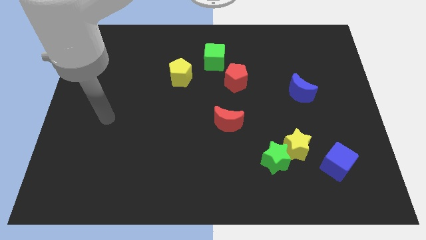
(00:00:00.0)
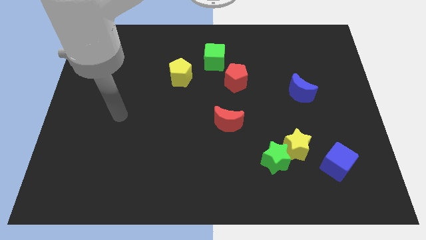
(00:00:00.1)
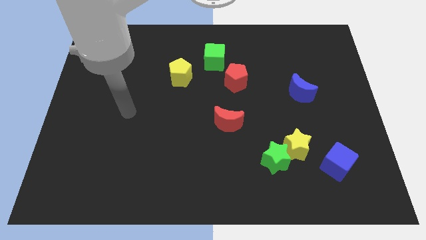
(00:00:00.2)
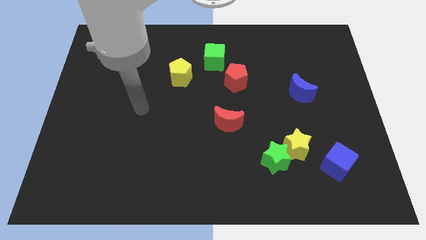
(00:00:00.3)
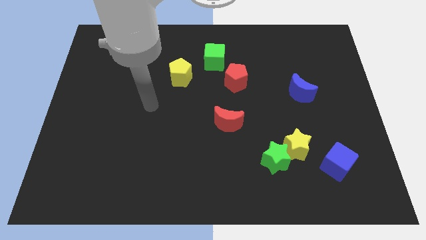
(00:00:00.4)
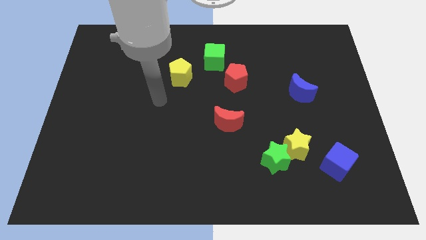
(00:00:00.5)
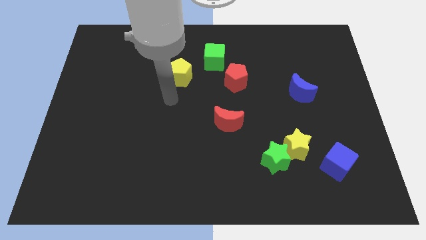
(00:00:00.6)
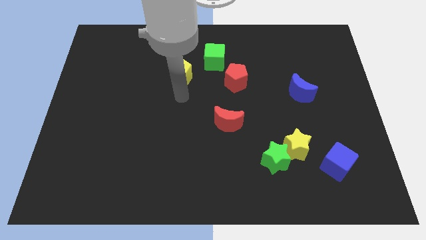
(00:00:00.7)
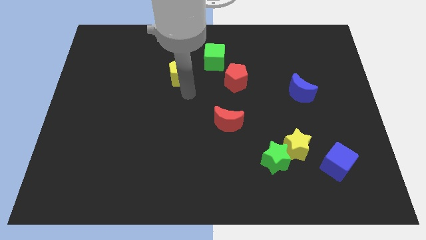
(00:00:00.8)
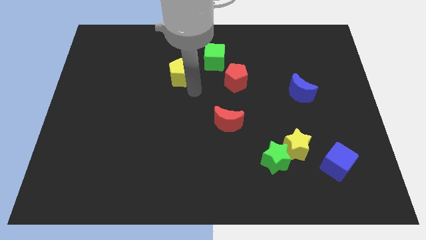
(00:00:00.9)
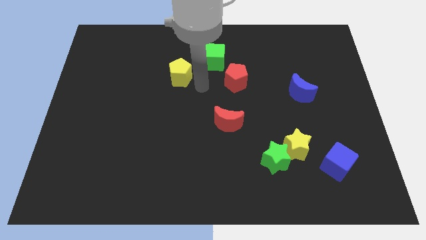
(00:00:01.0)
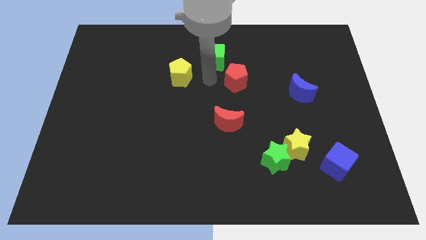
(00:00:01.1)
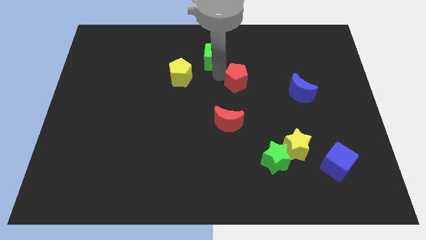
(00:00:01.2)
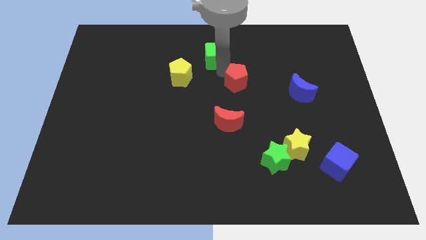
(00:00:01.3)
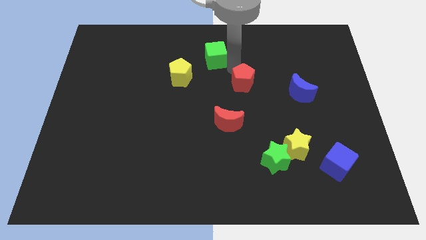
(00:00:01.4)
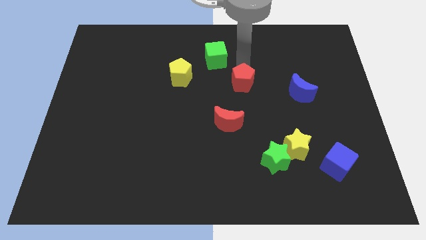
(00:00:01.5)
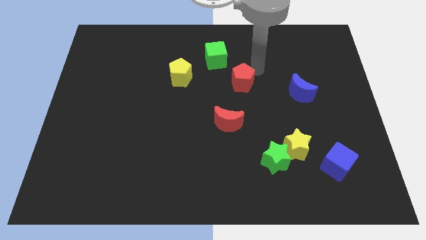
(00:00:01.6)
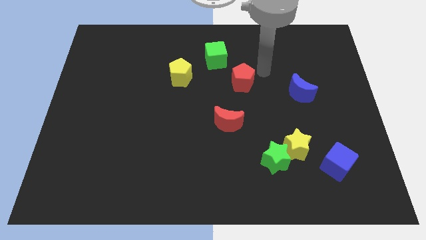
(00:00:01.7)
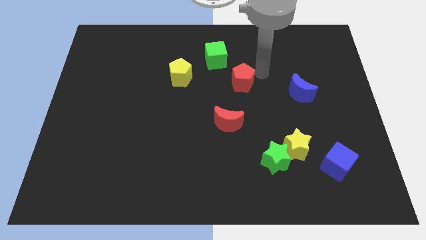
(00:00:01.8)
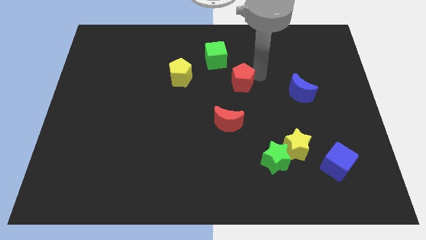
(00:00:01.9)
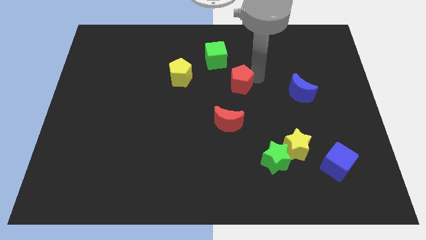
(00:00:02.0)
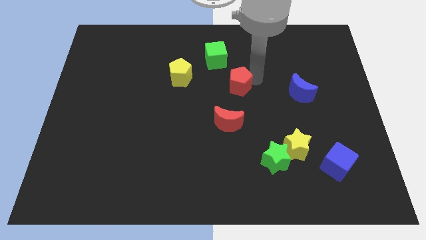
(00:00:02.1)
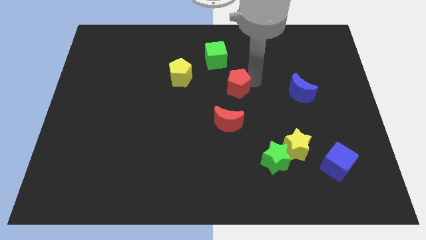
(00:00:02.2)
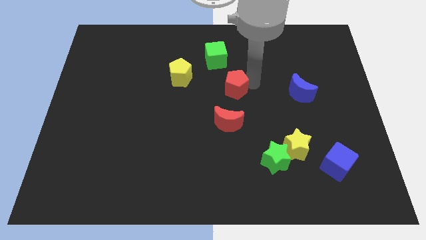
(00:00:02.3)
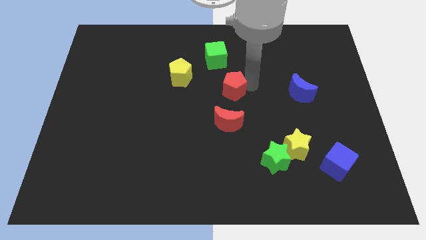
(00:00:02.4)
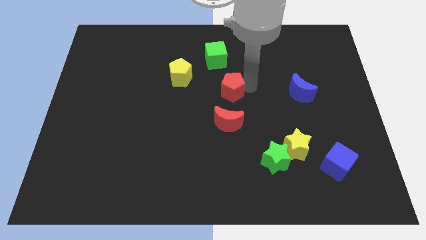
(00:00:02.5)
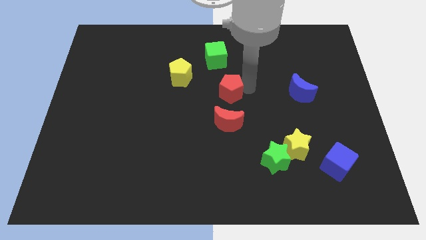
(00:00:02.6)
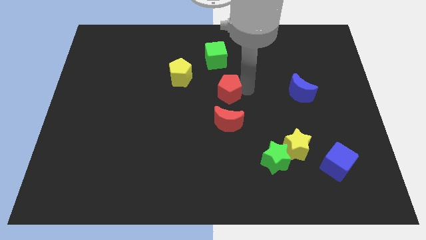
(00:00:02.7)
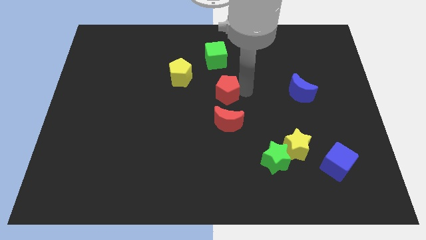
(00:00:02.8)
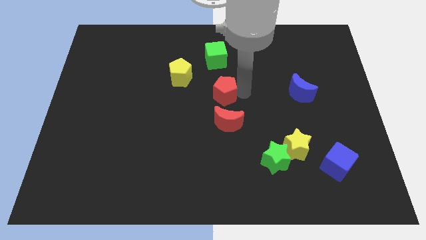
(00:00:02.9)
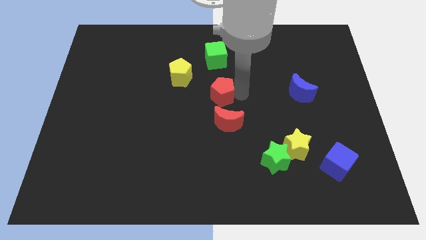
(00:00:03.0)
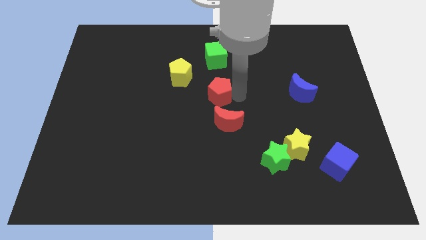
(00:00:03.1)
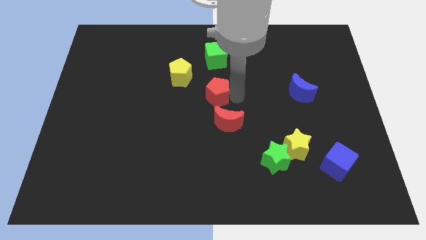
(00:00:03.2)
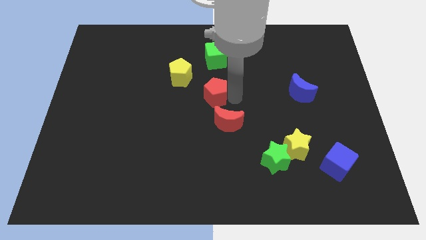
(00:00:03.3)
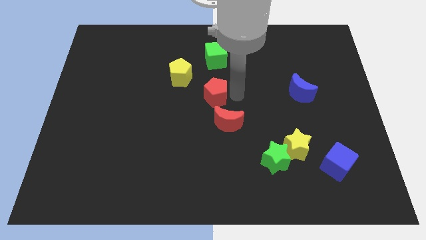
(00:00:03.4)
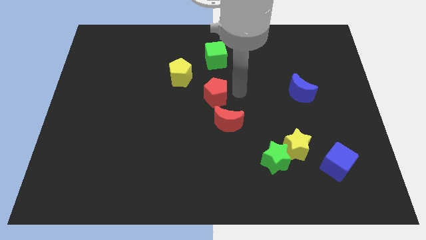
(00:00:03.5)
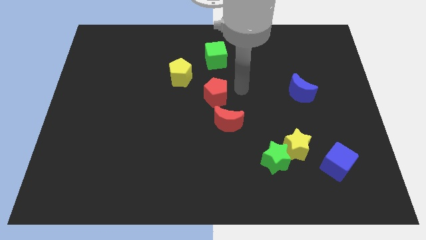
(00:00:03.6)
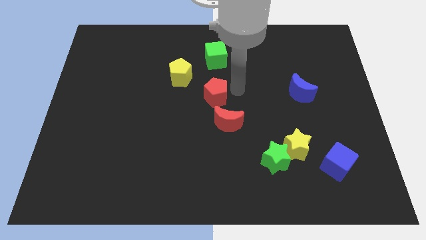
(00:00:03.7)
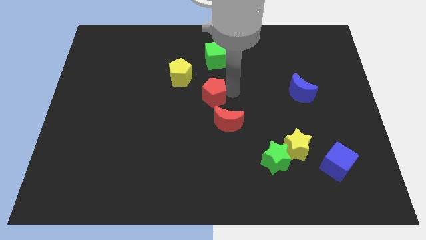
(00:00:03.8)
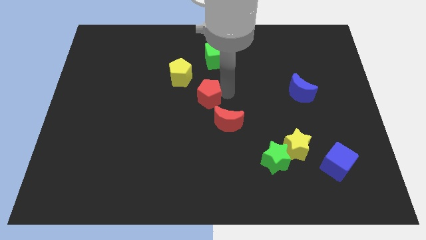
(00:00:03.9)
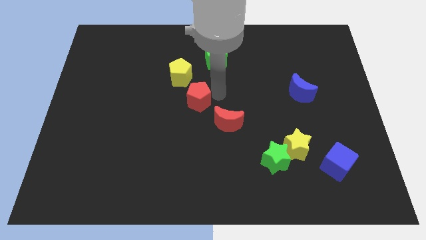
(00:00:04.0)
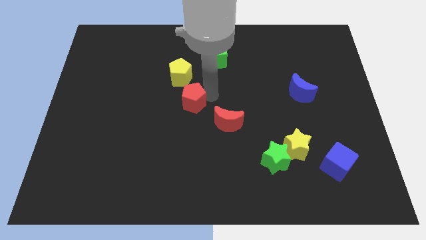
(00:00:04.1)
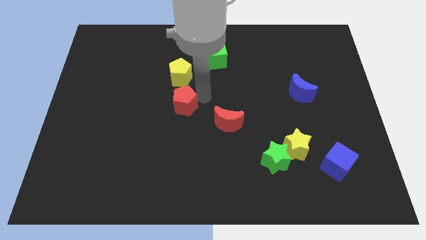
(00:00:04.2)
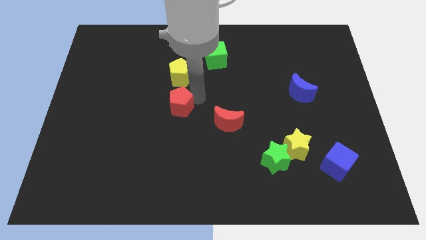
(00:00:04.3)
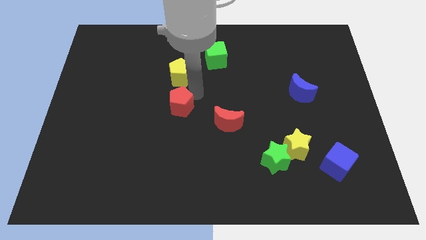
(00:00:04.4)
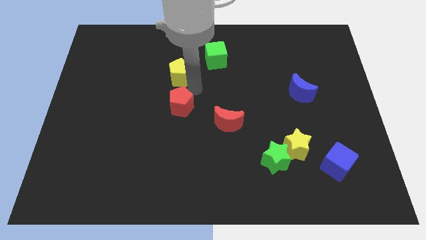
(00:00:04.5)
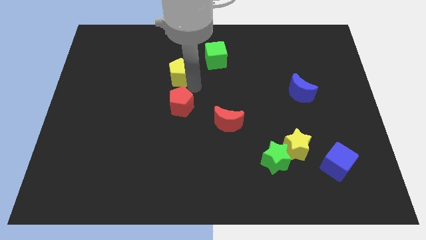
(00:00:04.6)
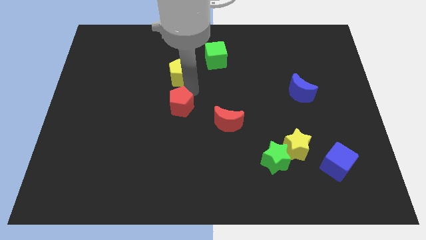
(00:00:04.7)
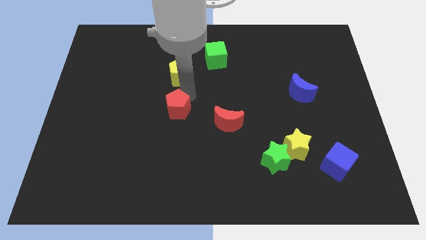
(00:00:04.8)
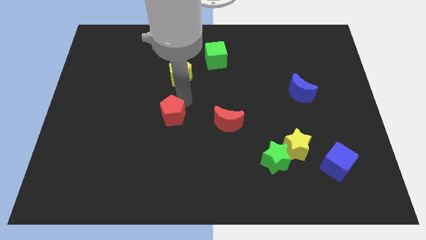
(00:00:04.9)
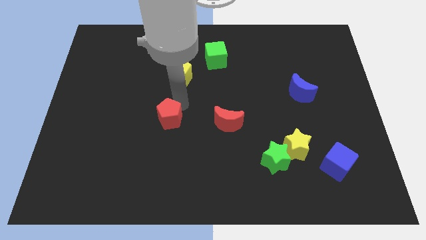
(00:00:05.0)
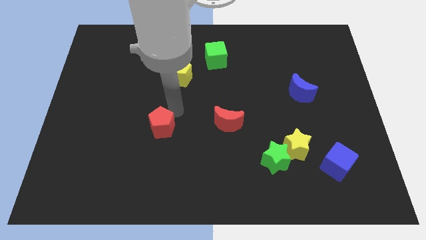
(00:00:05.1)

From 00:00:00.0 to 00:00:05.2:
move the red pentagon downwards and to the left

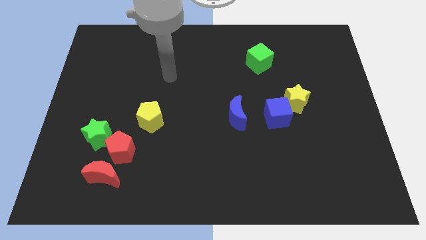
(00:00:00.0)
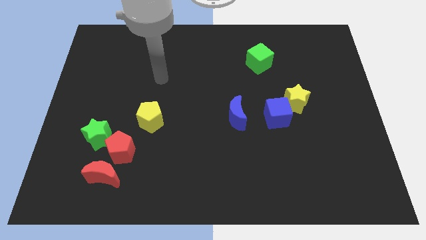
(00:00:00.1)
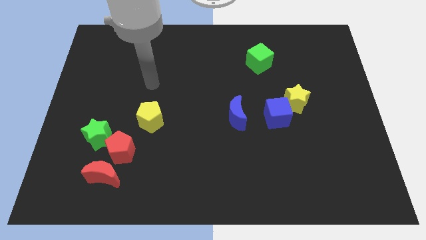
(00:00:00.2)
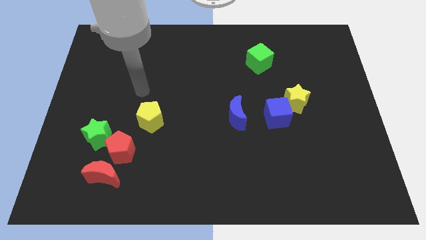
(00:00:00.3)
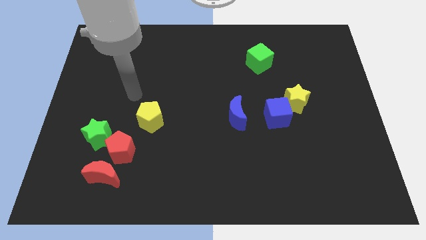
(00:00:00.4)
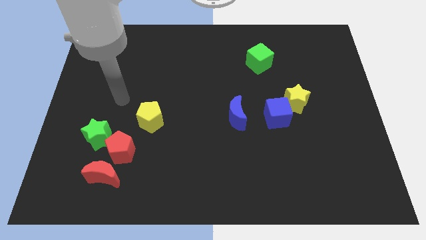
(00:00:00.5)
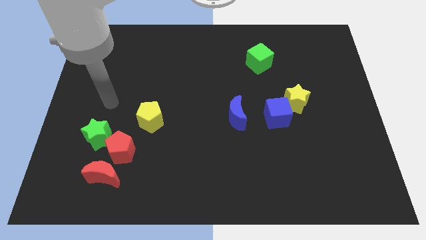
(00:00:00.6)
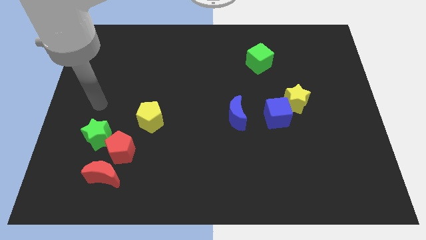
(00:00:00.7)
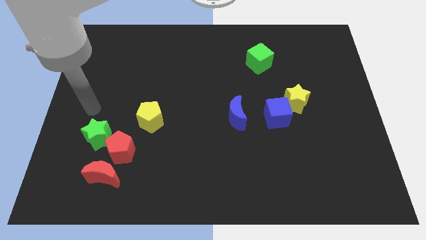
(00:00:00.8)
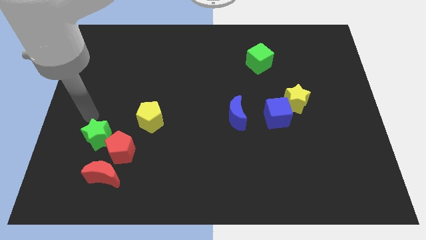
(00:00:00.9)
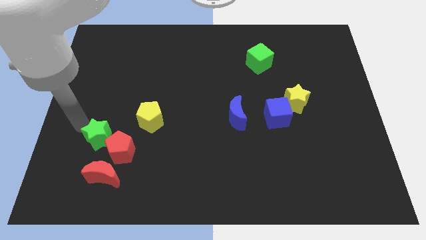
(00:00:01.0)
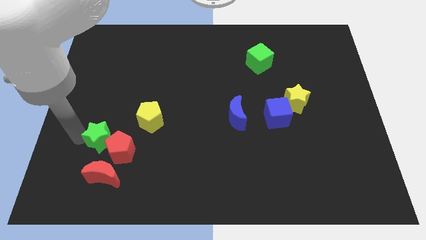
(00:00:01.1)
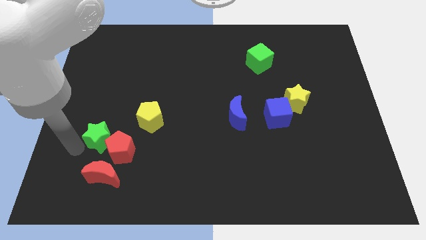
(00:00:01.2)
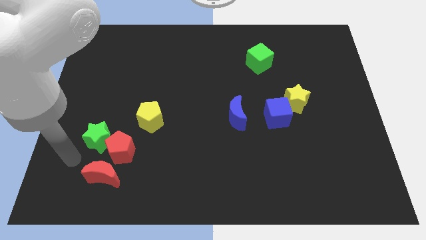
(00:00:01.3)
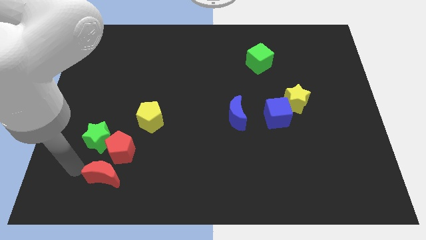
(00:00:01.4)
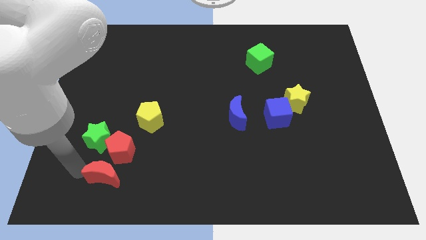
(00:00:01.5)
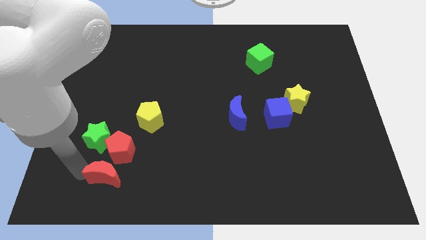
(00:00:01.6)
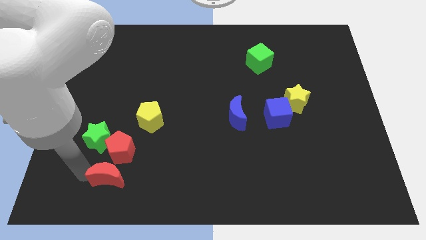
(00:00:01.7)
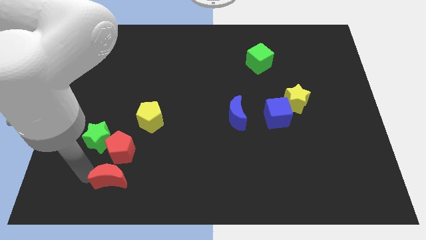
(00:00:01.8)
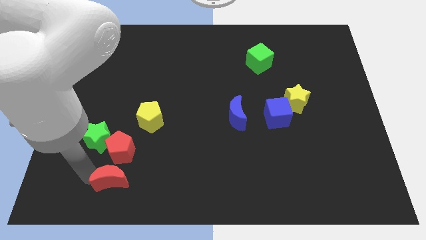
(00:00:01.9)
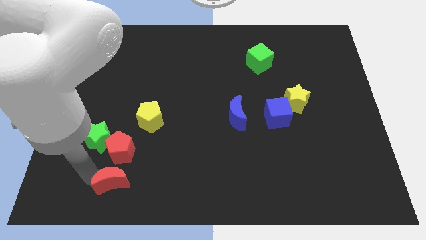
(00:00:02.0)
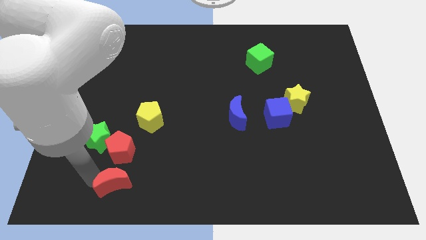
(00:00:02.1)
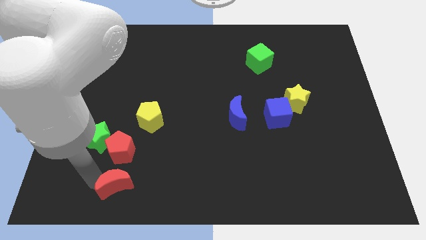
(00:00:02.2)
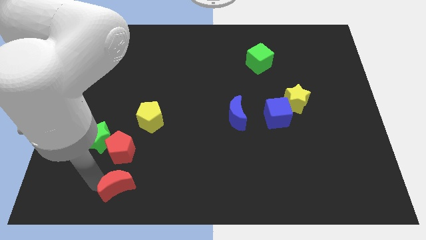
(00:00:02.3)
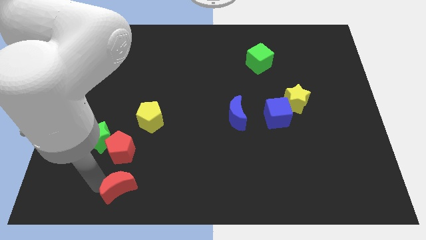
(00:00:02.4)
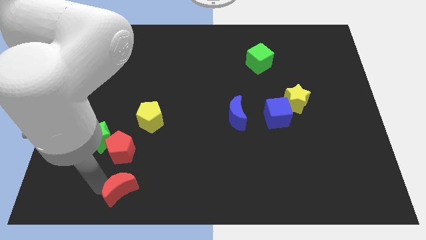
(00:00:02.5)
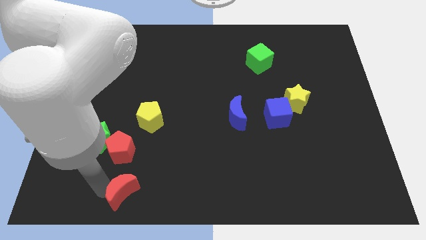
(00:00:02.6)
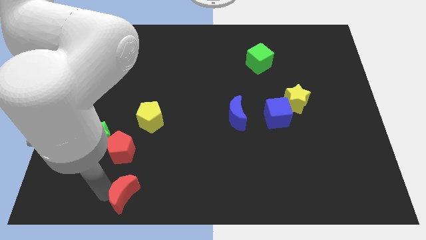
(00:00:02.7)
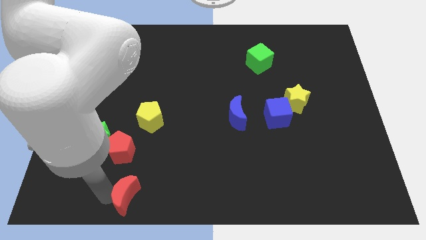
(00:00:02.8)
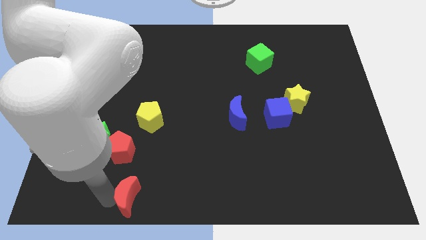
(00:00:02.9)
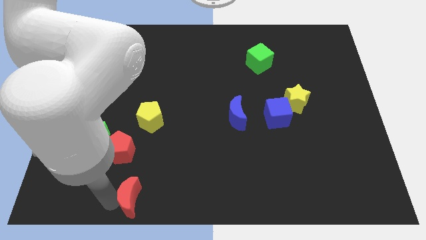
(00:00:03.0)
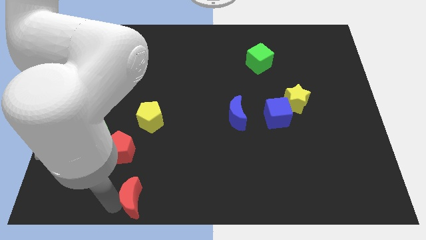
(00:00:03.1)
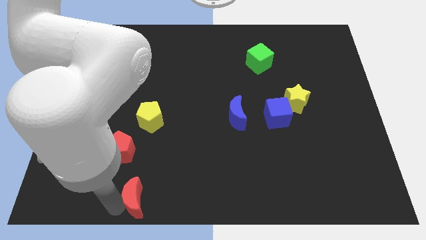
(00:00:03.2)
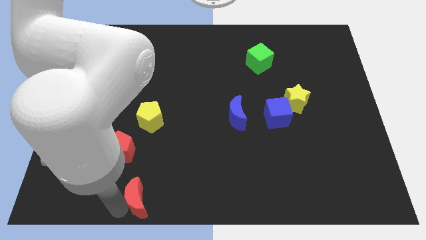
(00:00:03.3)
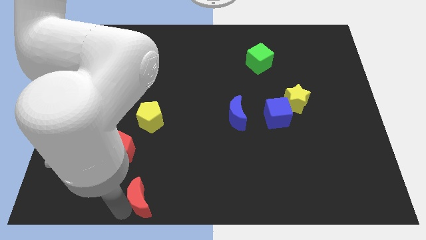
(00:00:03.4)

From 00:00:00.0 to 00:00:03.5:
slightly slide the red moon to the right
